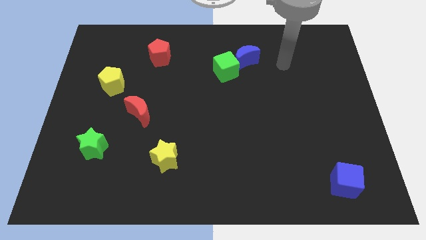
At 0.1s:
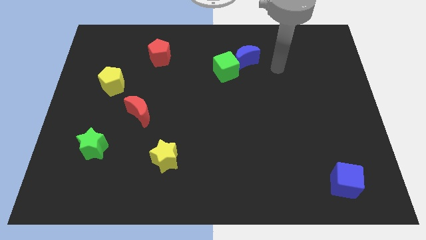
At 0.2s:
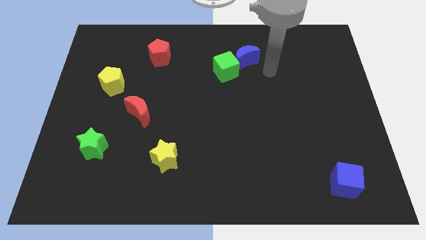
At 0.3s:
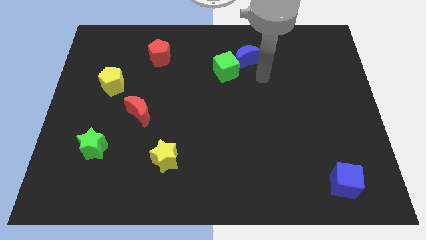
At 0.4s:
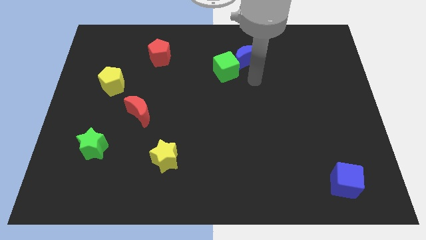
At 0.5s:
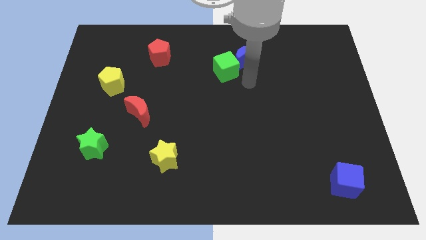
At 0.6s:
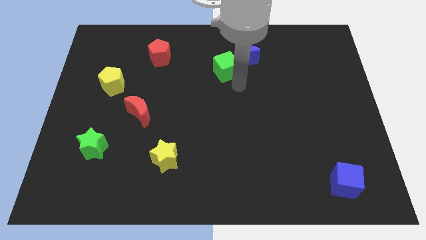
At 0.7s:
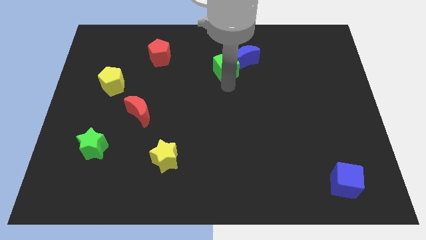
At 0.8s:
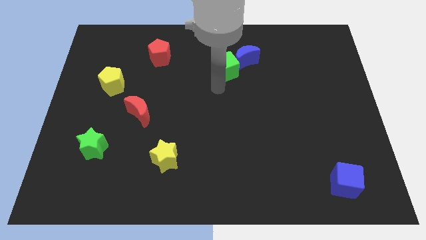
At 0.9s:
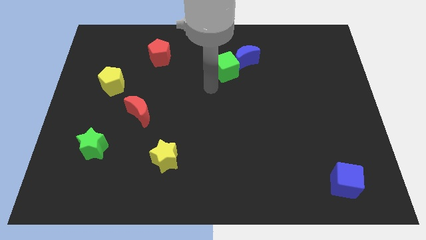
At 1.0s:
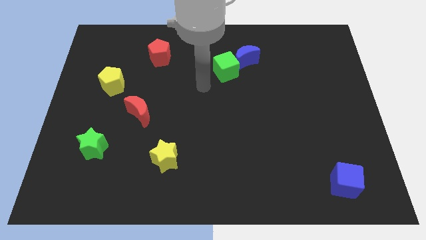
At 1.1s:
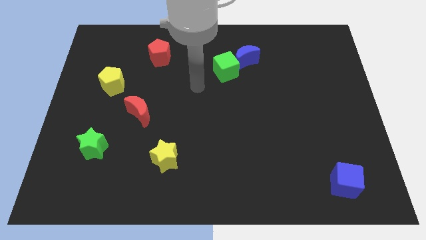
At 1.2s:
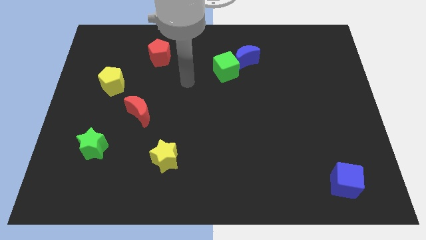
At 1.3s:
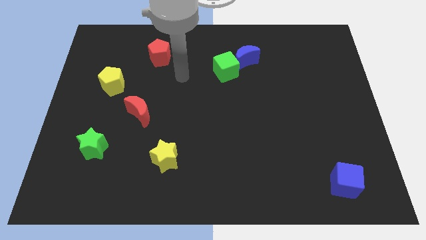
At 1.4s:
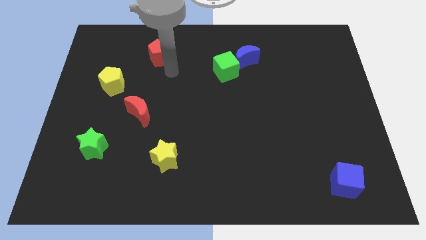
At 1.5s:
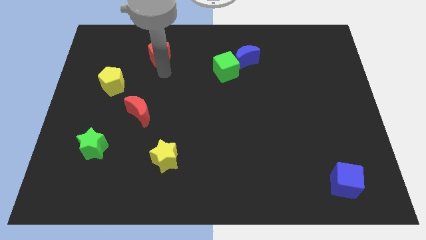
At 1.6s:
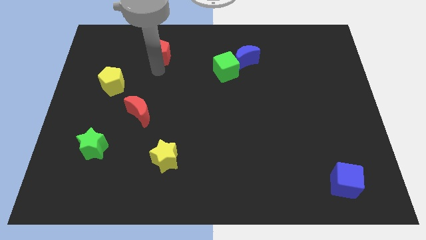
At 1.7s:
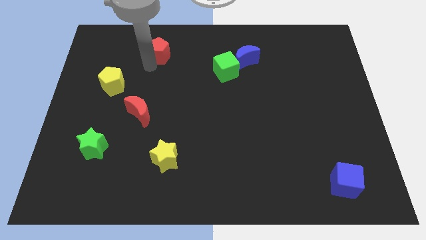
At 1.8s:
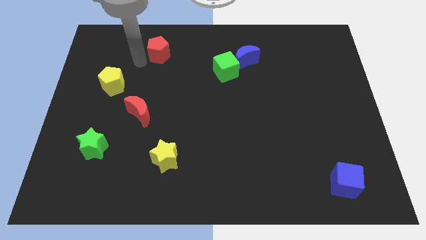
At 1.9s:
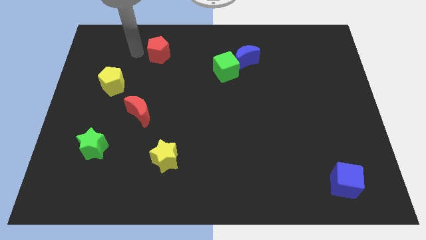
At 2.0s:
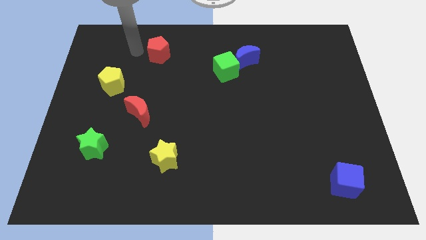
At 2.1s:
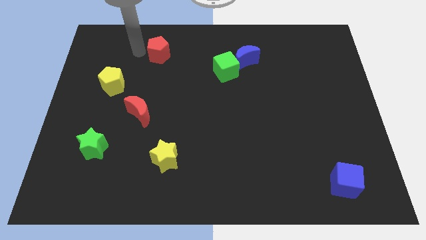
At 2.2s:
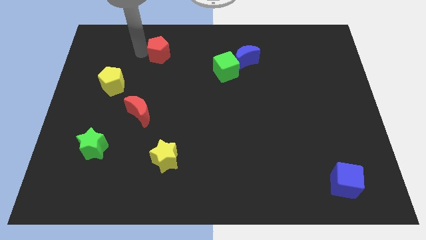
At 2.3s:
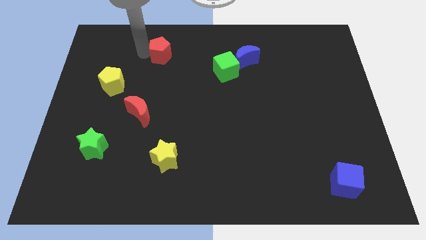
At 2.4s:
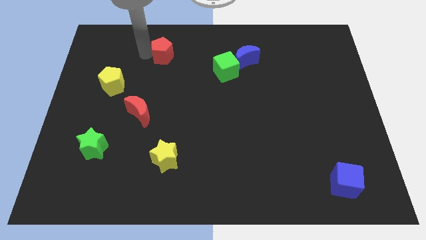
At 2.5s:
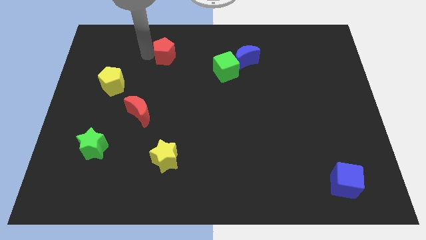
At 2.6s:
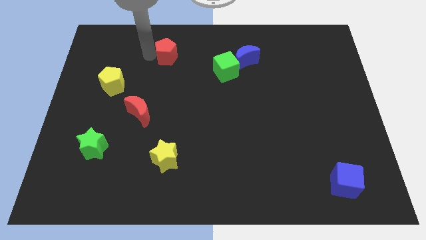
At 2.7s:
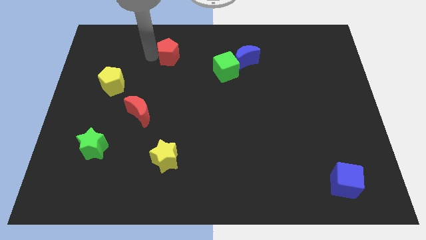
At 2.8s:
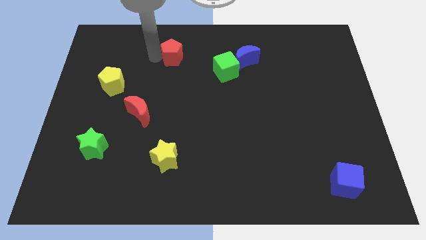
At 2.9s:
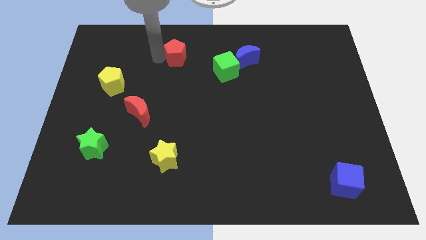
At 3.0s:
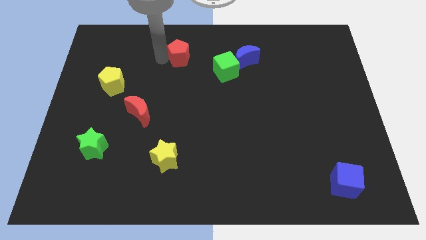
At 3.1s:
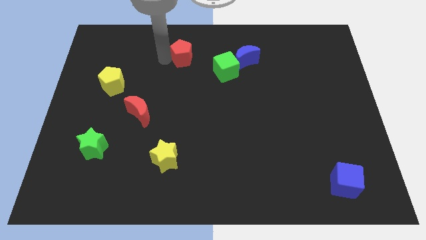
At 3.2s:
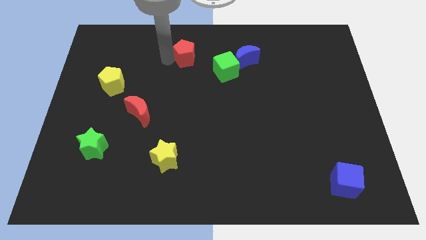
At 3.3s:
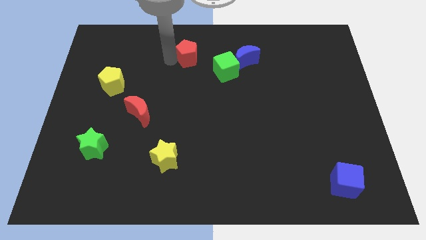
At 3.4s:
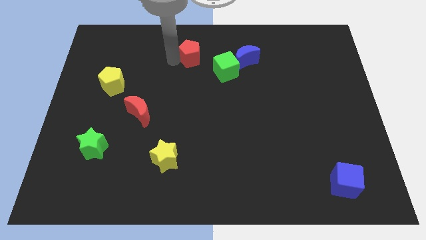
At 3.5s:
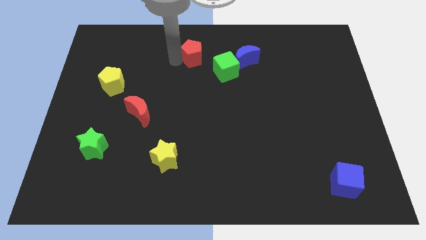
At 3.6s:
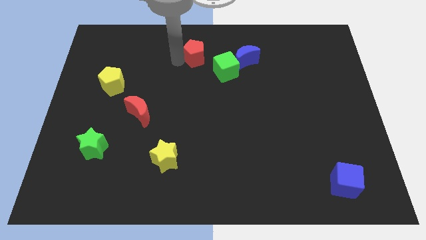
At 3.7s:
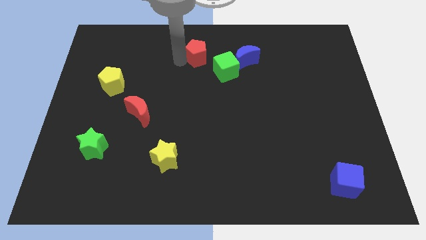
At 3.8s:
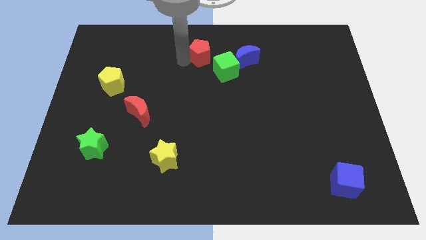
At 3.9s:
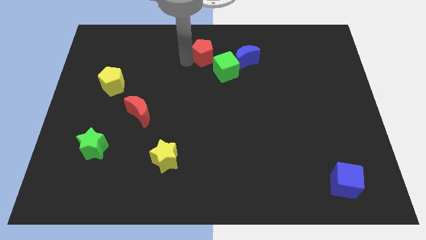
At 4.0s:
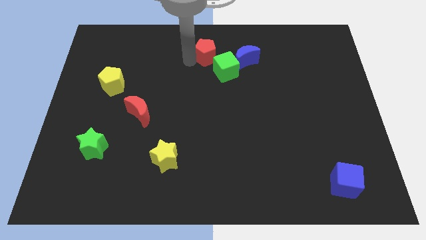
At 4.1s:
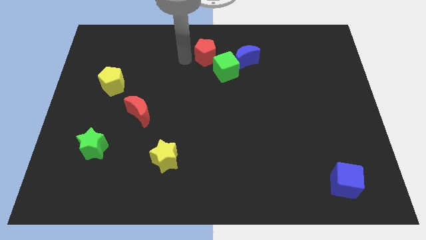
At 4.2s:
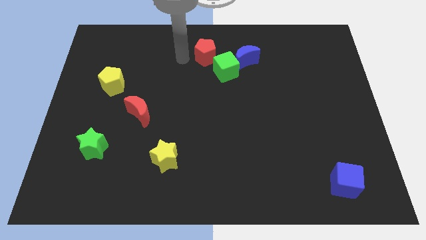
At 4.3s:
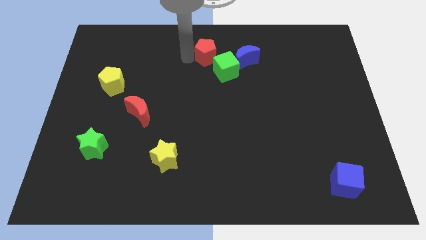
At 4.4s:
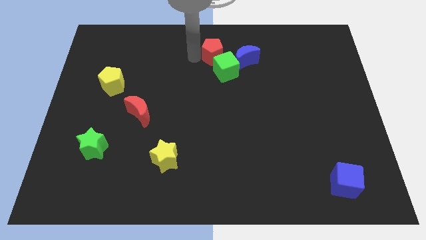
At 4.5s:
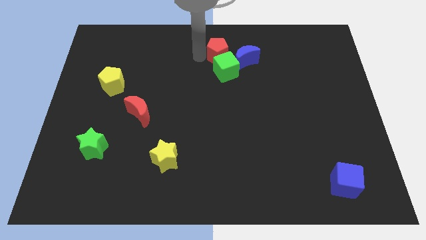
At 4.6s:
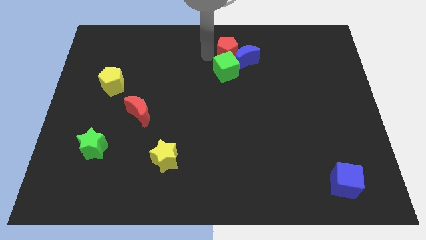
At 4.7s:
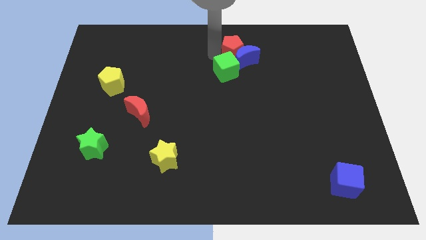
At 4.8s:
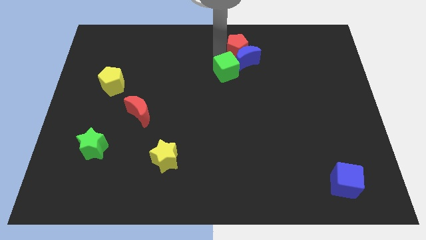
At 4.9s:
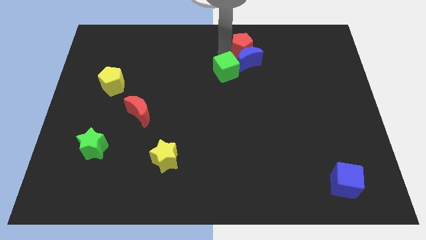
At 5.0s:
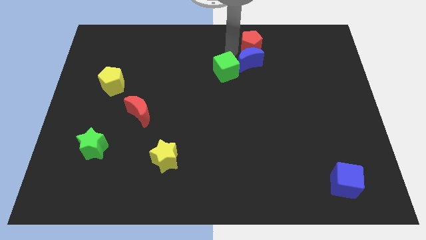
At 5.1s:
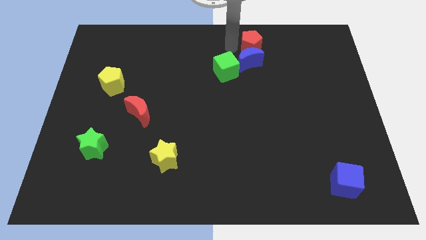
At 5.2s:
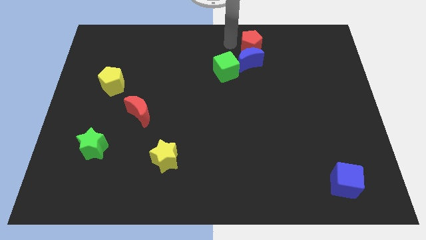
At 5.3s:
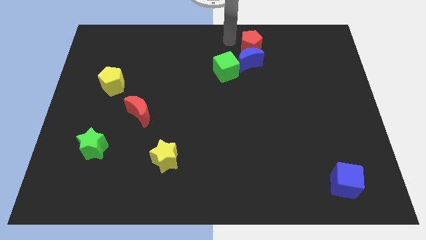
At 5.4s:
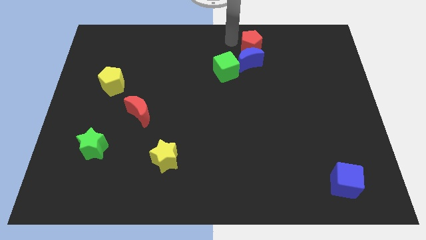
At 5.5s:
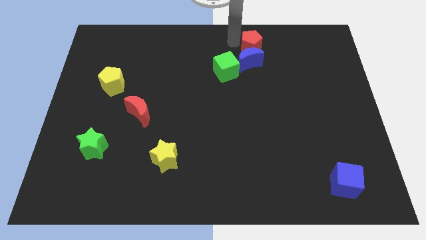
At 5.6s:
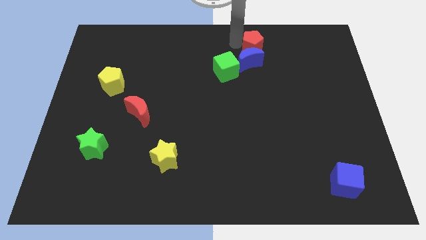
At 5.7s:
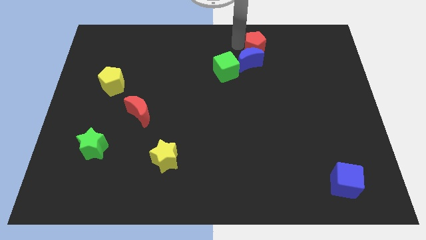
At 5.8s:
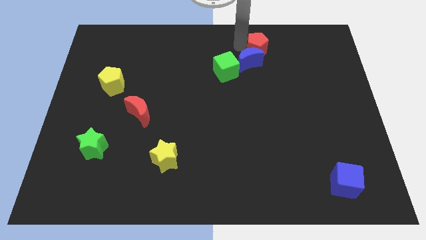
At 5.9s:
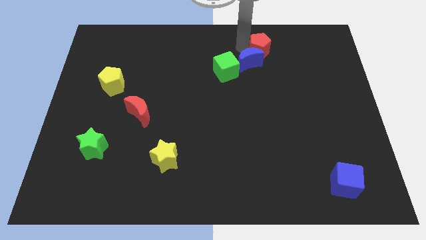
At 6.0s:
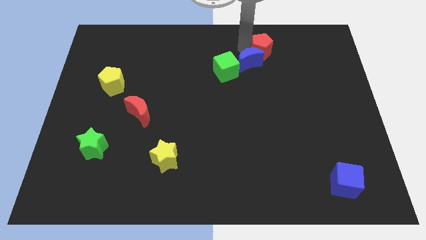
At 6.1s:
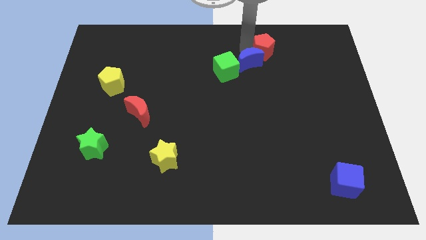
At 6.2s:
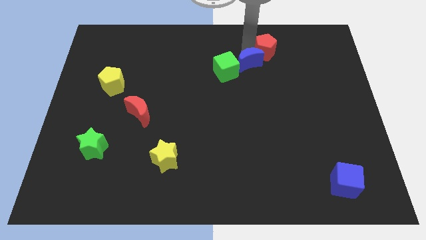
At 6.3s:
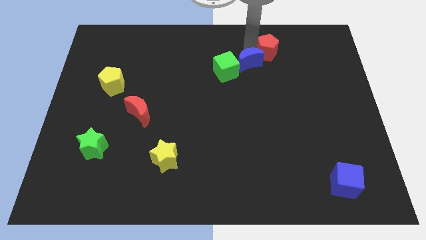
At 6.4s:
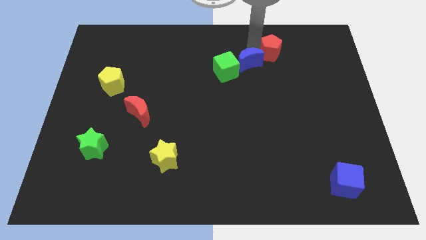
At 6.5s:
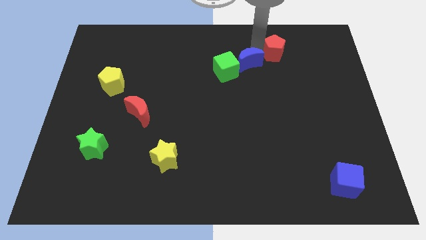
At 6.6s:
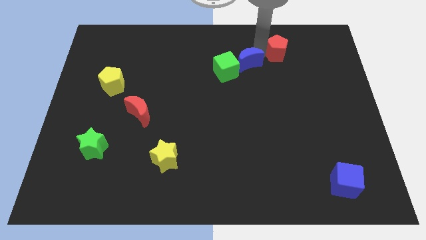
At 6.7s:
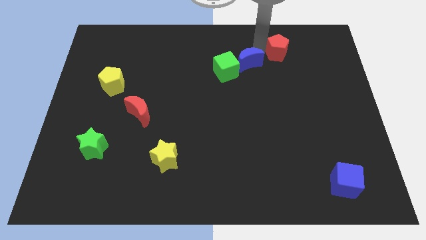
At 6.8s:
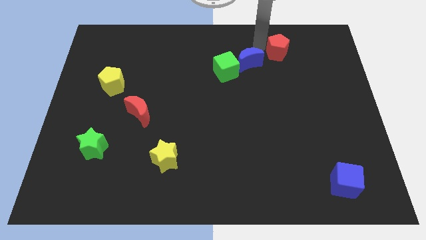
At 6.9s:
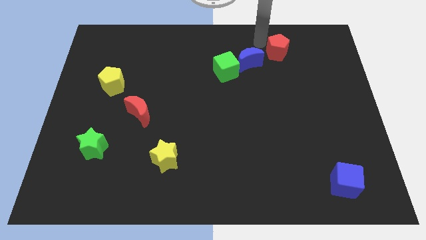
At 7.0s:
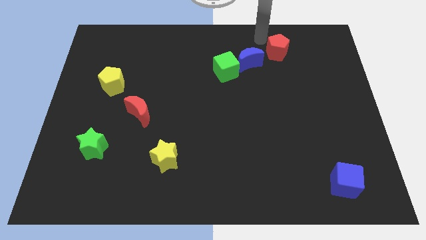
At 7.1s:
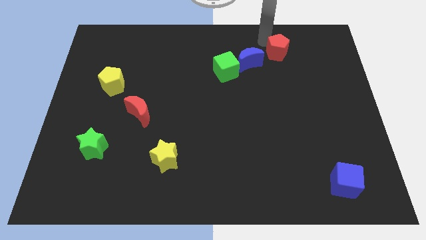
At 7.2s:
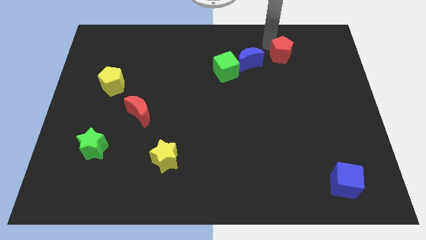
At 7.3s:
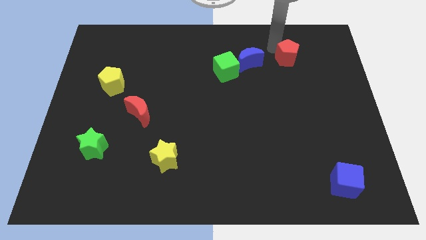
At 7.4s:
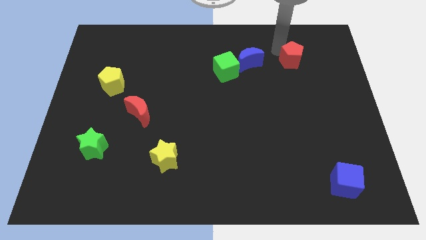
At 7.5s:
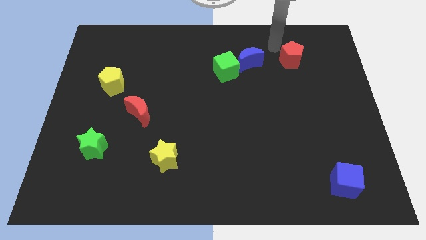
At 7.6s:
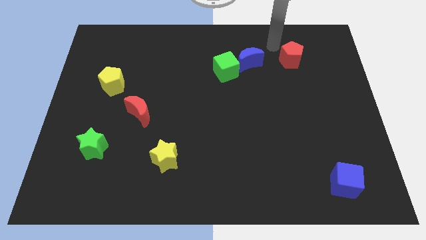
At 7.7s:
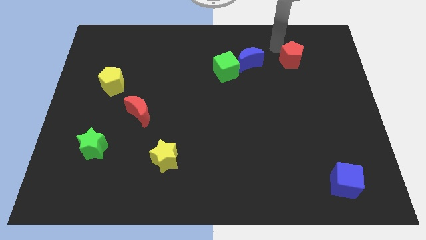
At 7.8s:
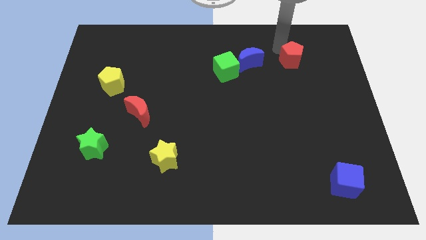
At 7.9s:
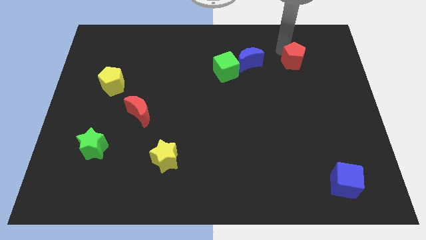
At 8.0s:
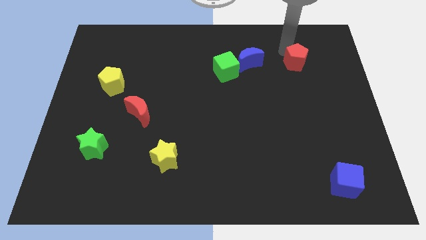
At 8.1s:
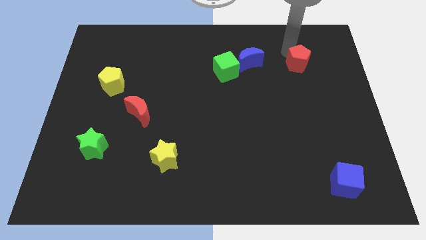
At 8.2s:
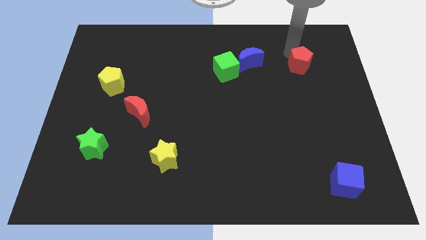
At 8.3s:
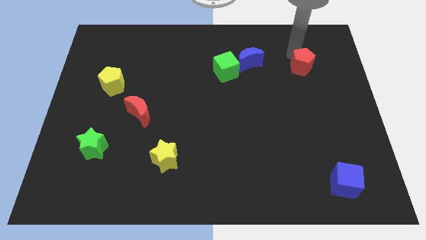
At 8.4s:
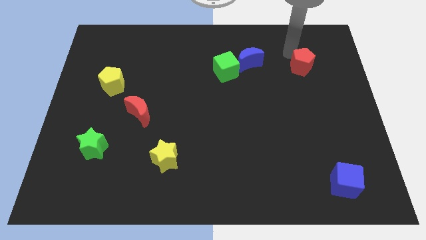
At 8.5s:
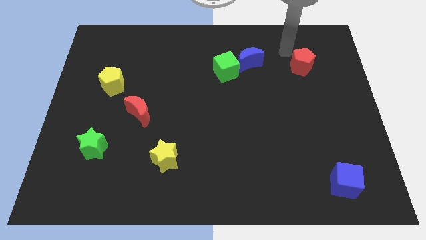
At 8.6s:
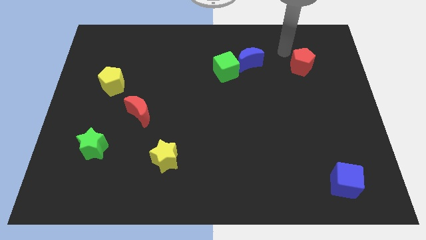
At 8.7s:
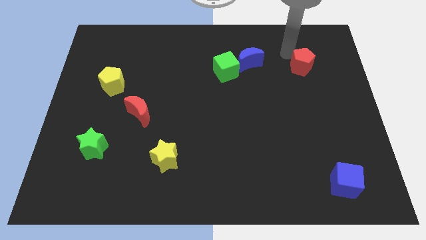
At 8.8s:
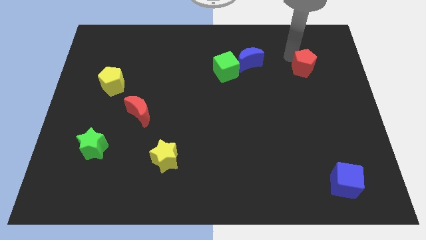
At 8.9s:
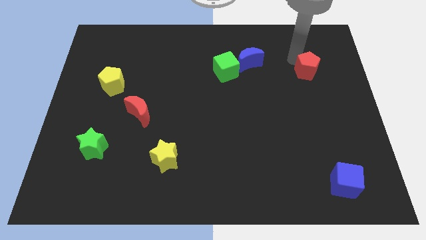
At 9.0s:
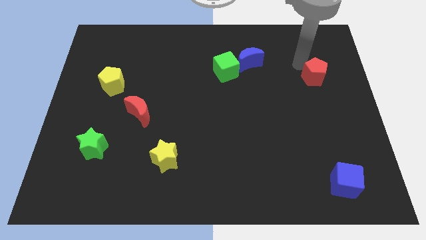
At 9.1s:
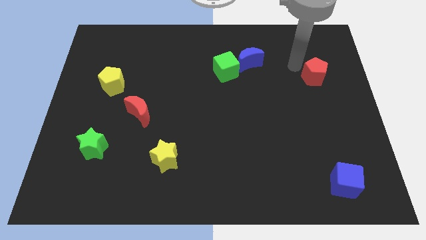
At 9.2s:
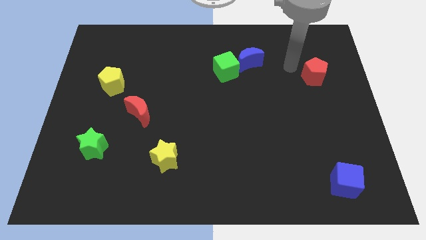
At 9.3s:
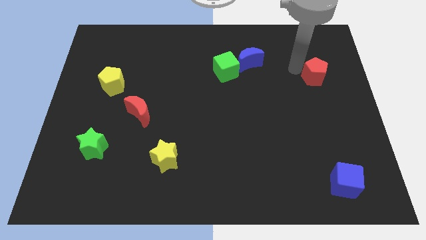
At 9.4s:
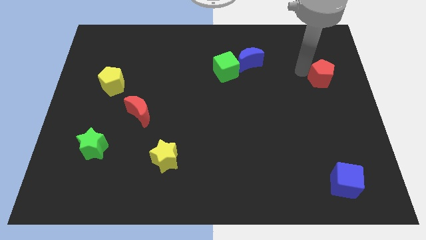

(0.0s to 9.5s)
put the red pentagon to the center right
